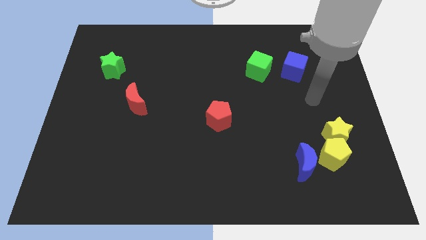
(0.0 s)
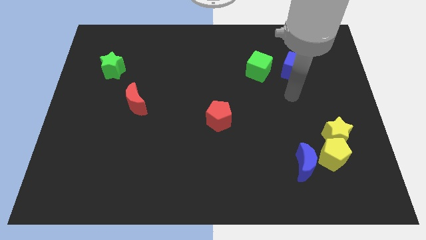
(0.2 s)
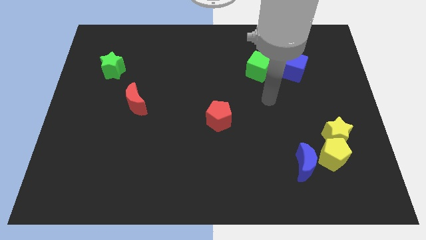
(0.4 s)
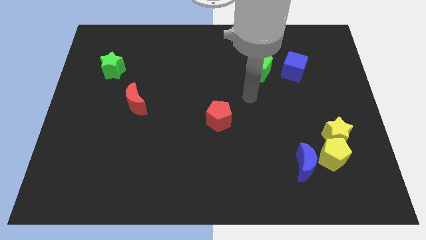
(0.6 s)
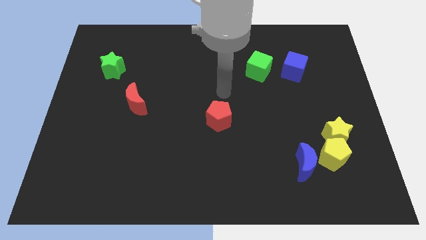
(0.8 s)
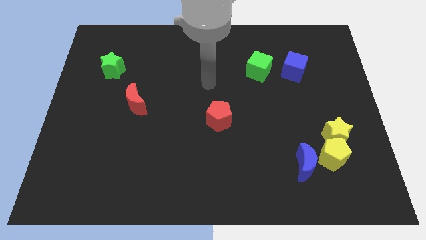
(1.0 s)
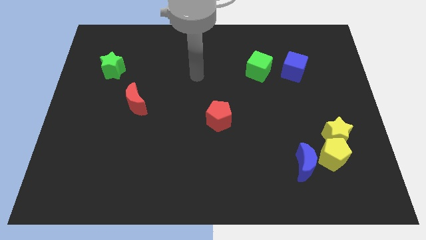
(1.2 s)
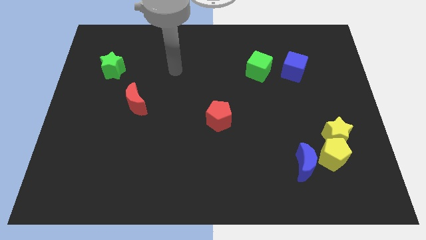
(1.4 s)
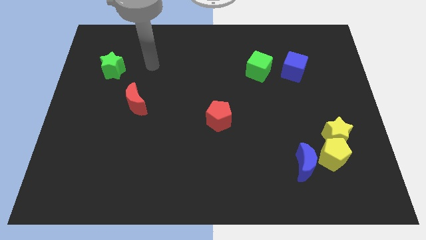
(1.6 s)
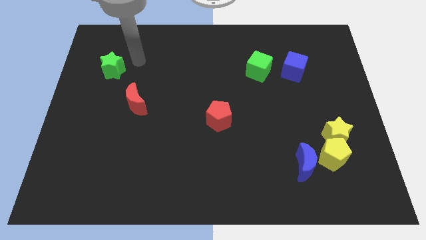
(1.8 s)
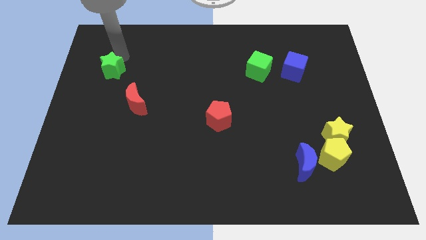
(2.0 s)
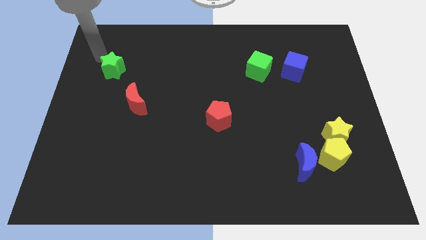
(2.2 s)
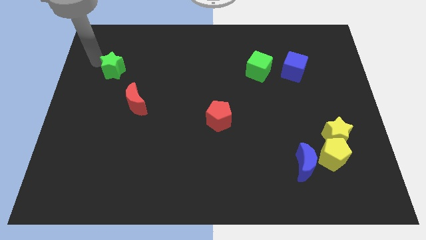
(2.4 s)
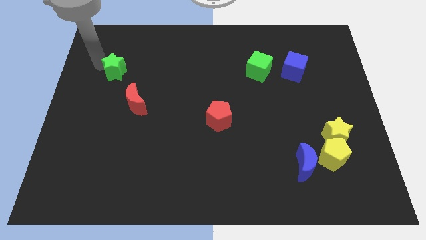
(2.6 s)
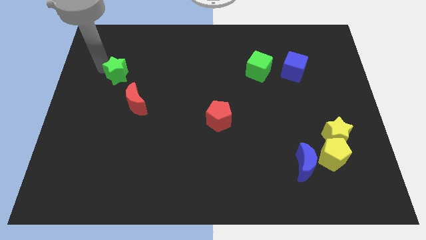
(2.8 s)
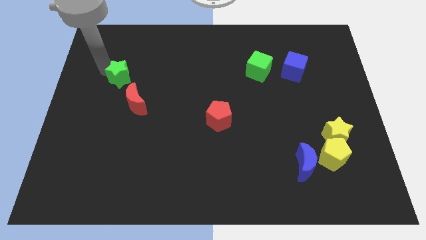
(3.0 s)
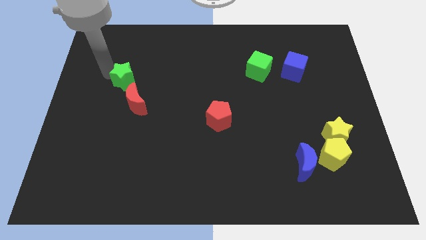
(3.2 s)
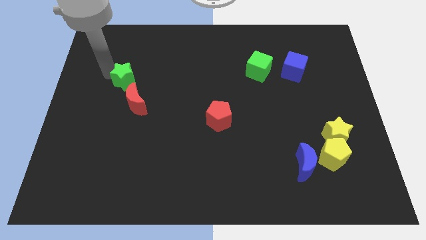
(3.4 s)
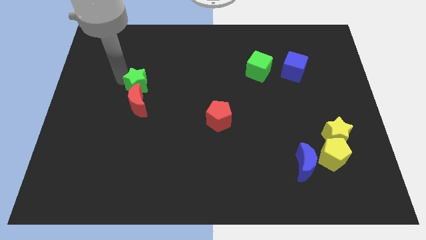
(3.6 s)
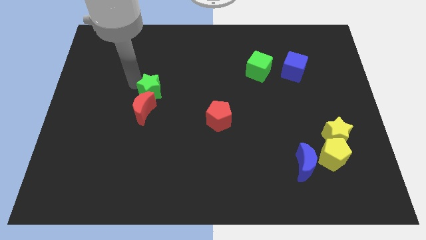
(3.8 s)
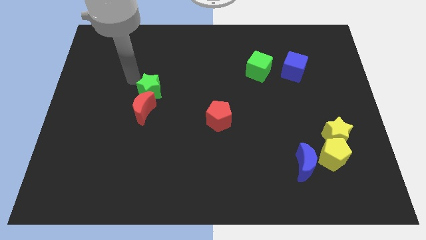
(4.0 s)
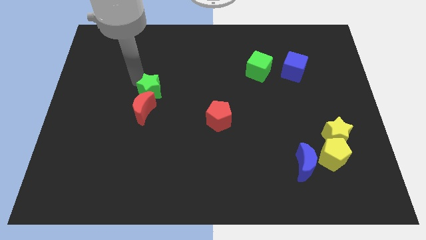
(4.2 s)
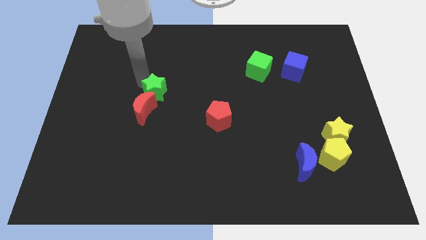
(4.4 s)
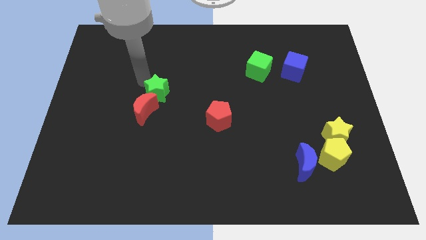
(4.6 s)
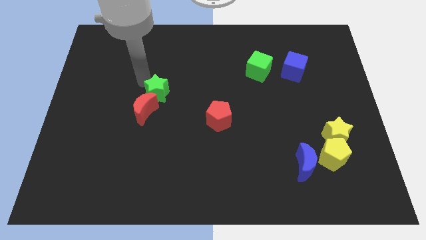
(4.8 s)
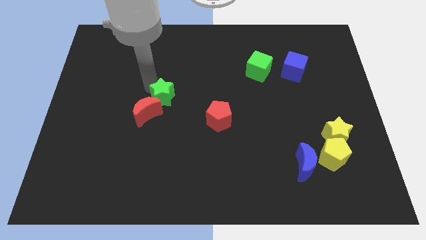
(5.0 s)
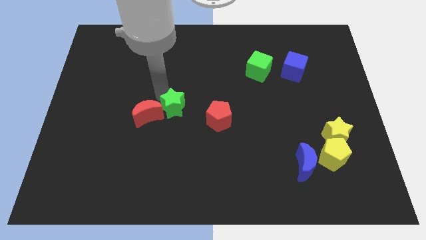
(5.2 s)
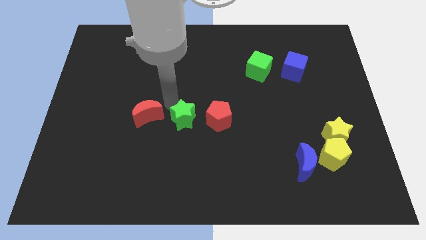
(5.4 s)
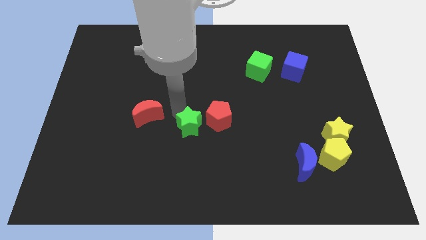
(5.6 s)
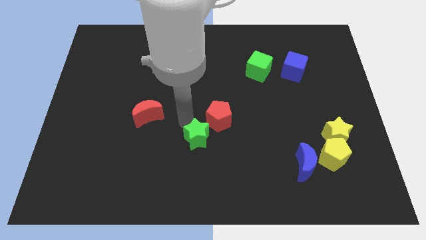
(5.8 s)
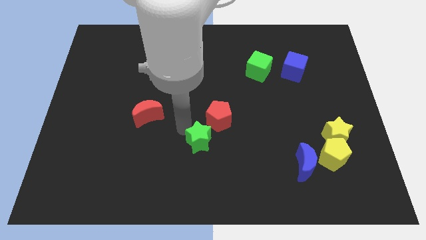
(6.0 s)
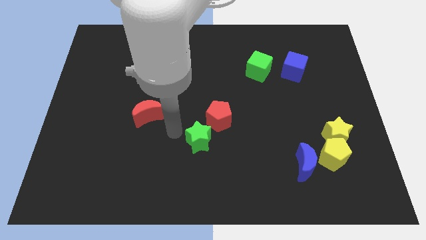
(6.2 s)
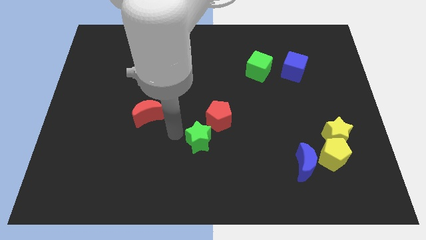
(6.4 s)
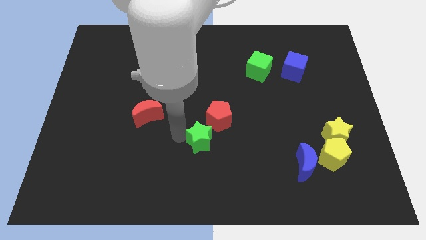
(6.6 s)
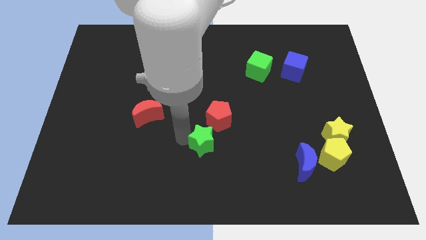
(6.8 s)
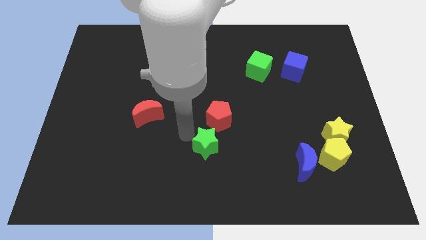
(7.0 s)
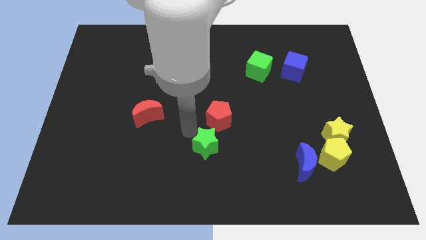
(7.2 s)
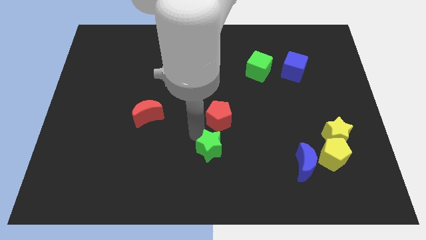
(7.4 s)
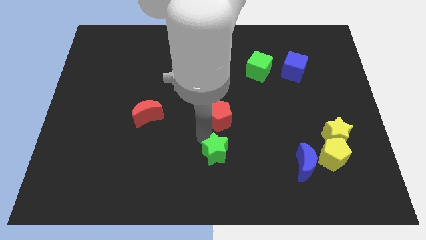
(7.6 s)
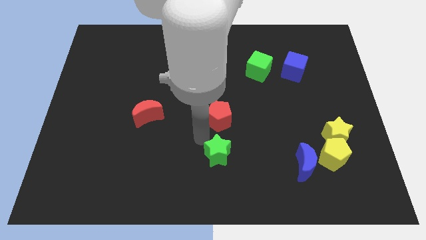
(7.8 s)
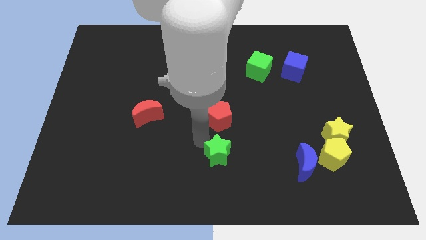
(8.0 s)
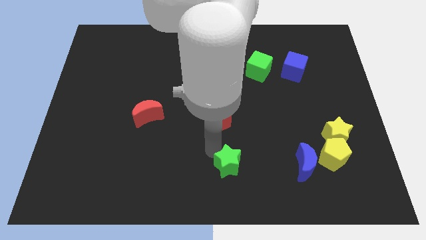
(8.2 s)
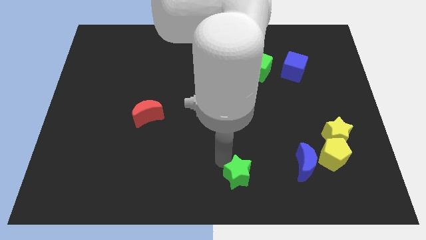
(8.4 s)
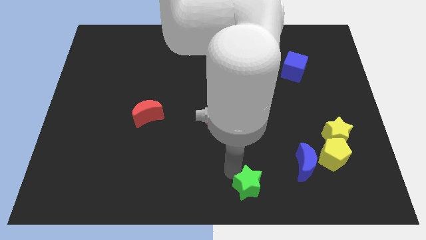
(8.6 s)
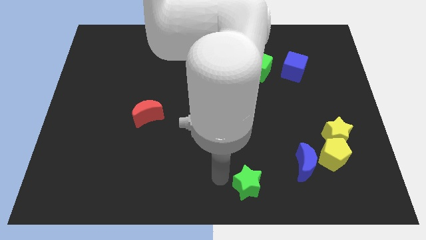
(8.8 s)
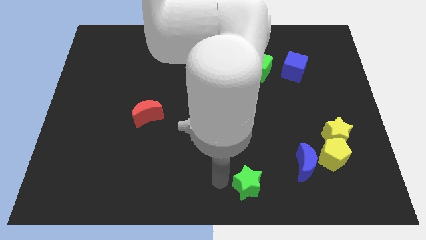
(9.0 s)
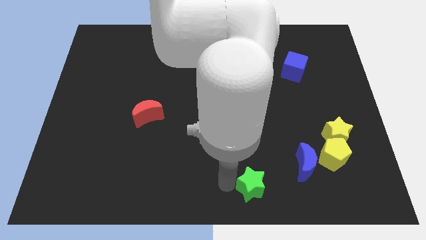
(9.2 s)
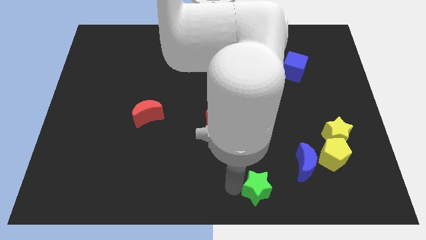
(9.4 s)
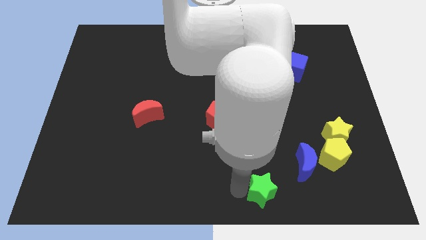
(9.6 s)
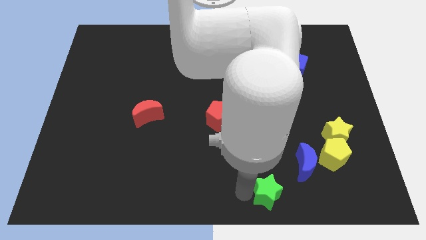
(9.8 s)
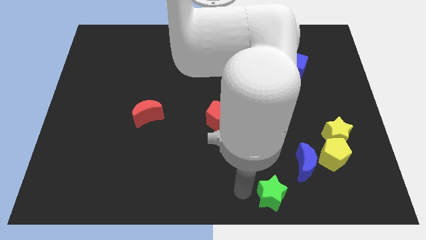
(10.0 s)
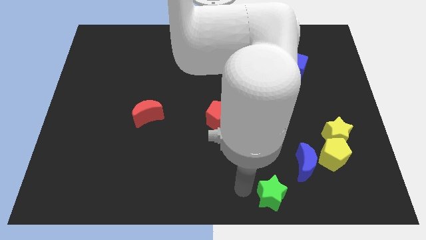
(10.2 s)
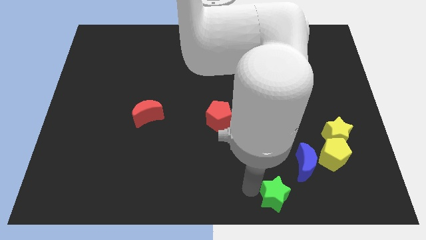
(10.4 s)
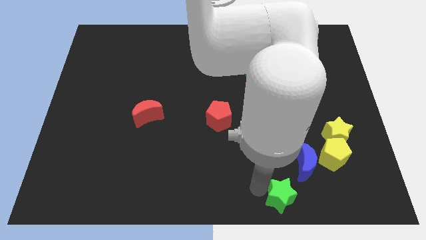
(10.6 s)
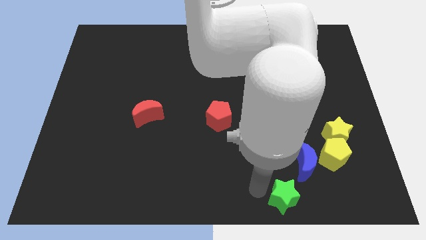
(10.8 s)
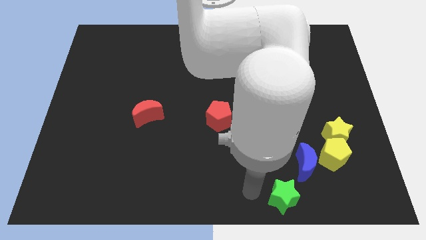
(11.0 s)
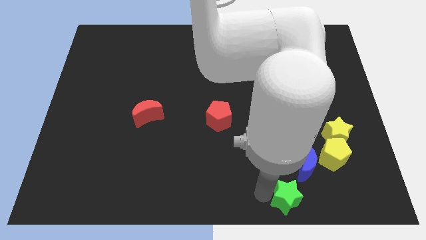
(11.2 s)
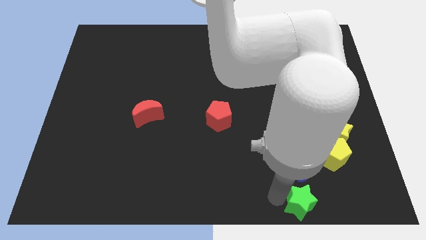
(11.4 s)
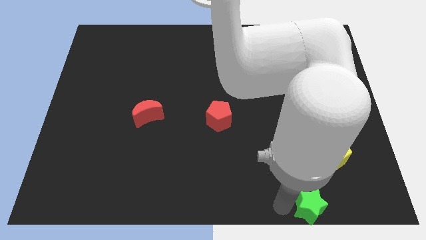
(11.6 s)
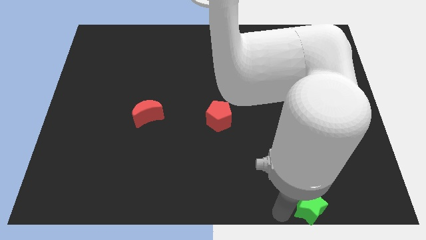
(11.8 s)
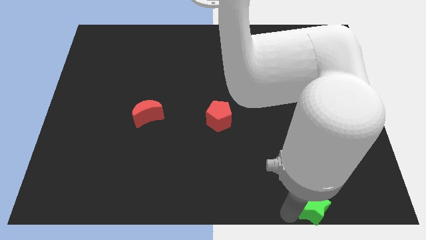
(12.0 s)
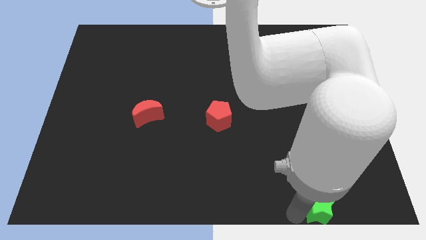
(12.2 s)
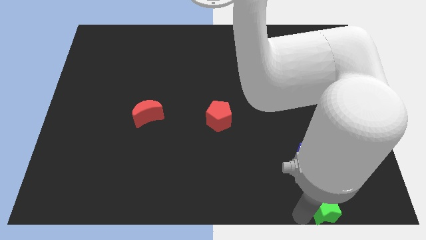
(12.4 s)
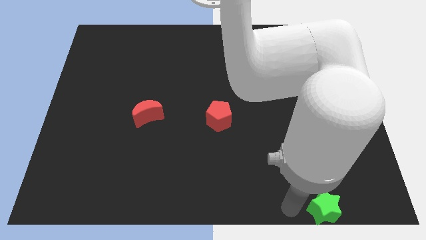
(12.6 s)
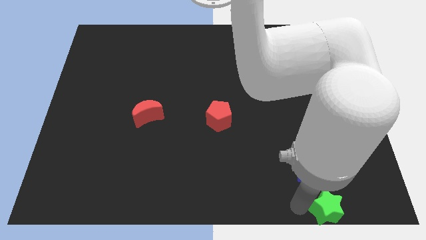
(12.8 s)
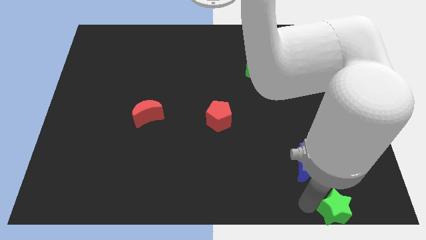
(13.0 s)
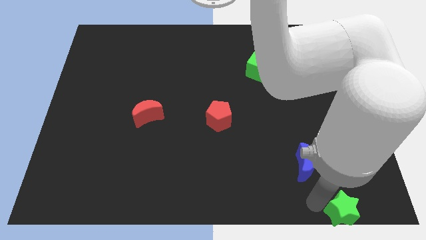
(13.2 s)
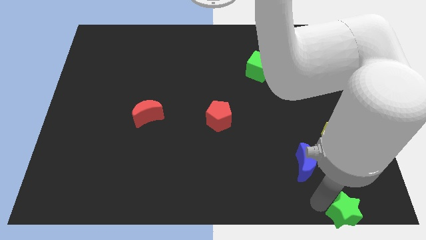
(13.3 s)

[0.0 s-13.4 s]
move the green star to the bottom right corner
